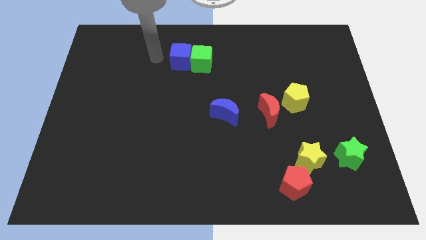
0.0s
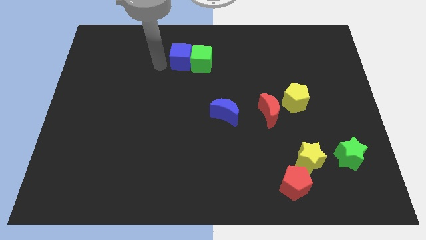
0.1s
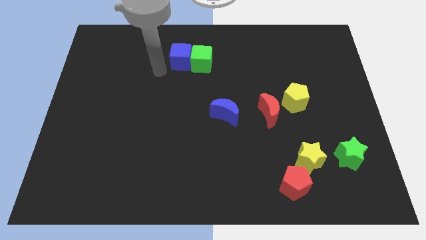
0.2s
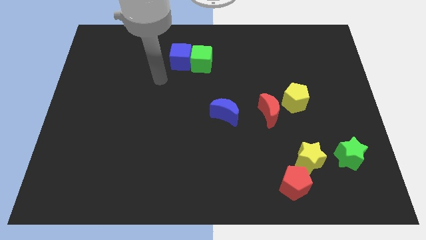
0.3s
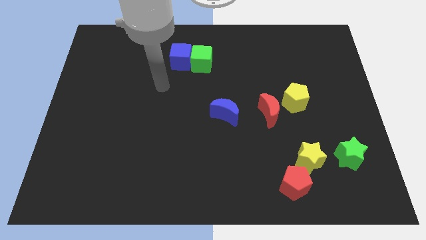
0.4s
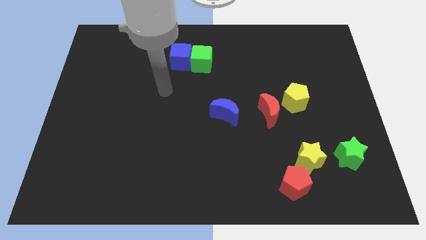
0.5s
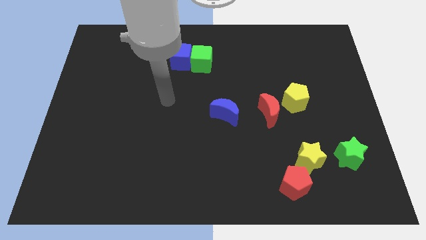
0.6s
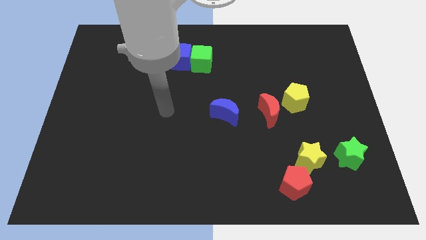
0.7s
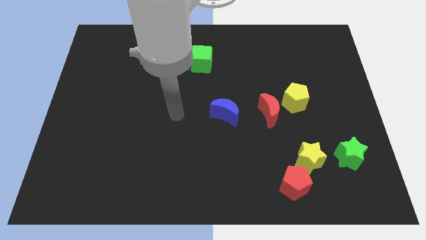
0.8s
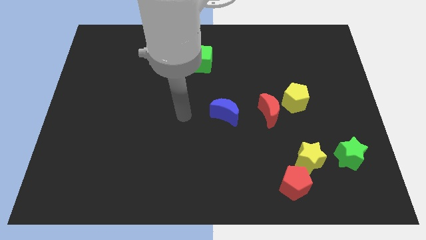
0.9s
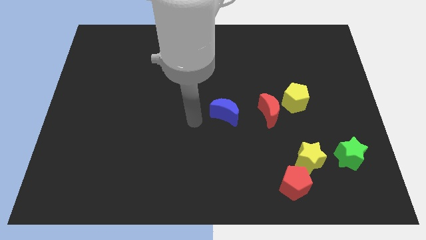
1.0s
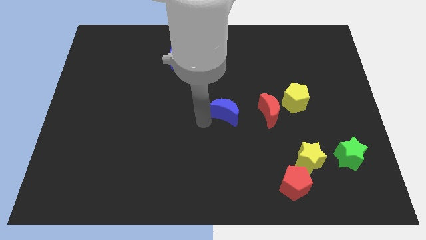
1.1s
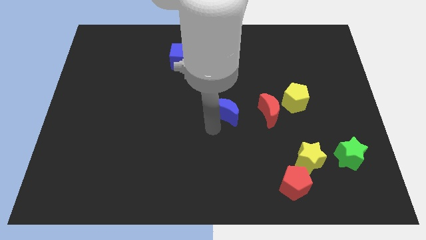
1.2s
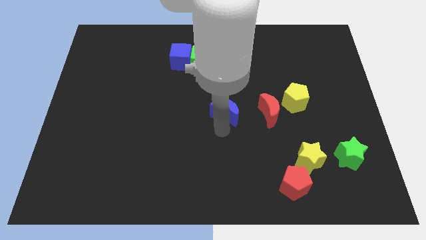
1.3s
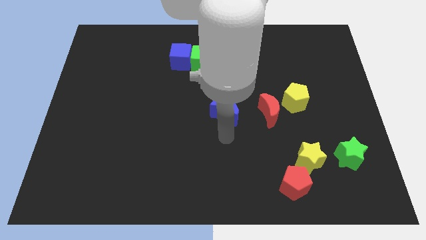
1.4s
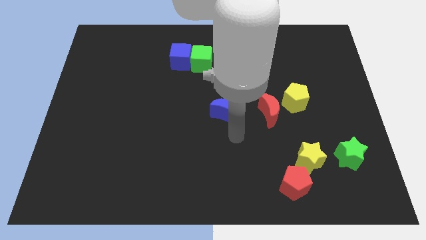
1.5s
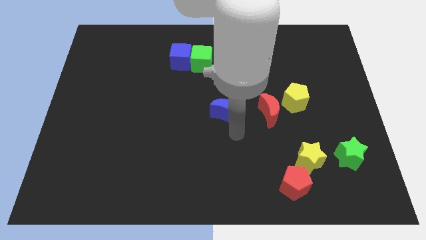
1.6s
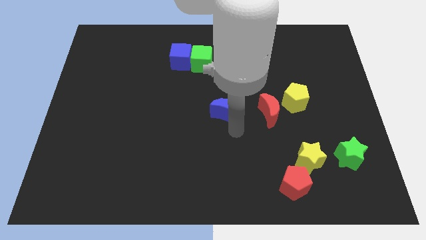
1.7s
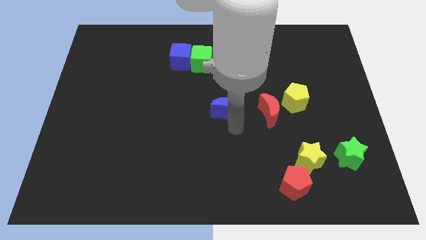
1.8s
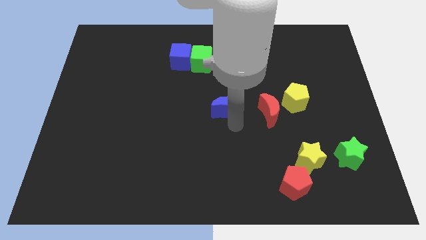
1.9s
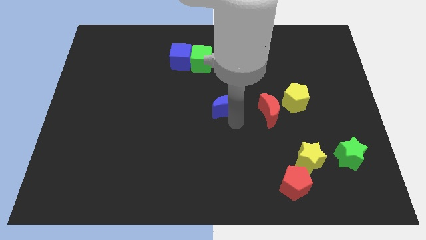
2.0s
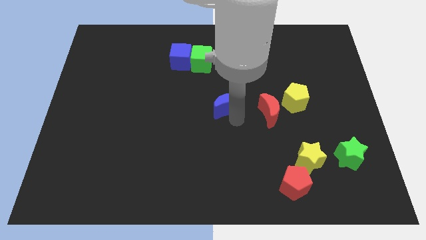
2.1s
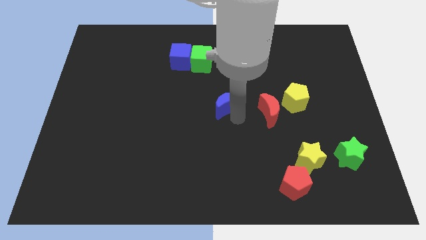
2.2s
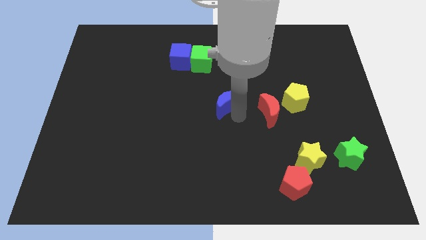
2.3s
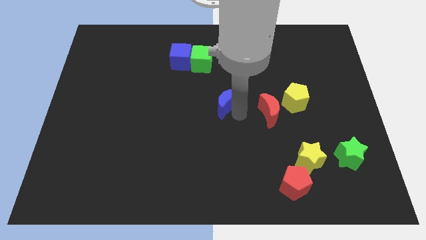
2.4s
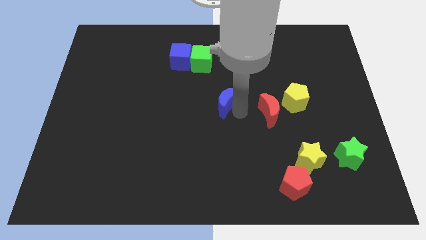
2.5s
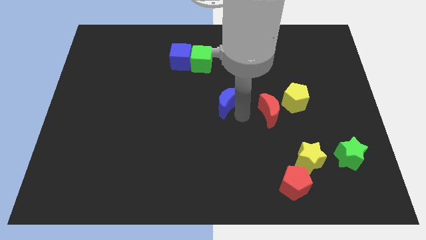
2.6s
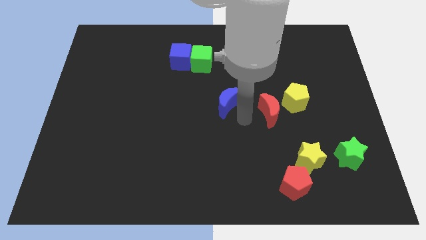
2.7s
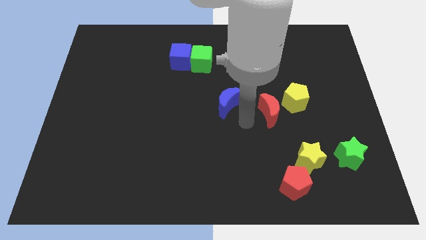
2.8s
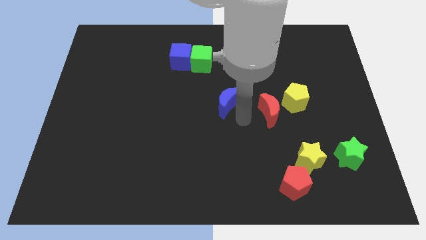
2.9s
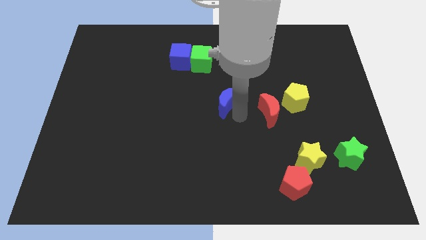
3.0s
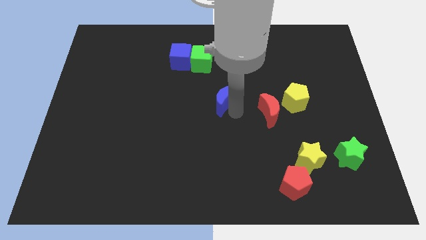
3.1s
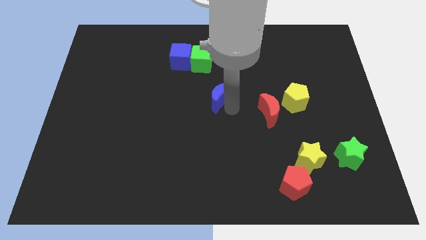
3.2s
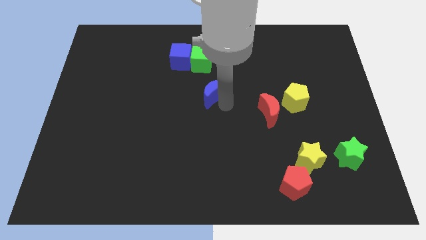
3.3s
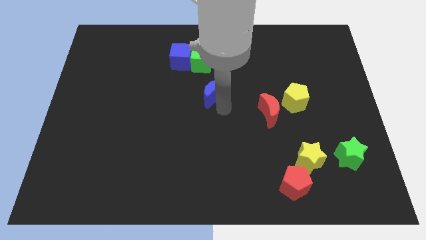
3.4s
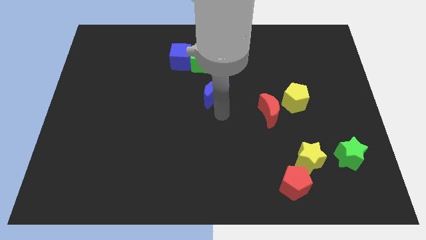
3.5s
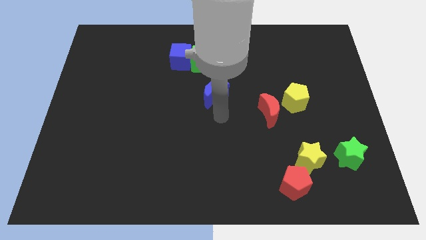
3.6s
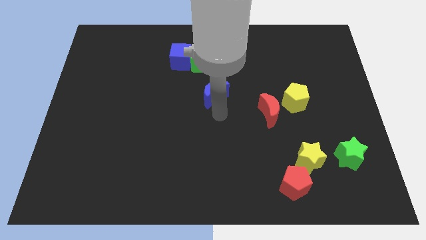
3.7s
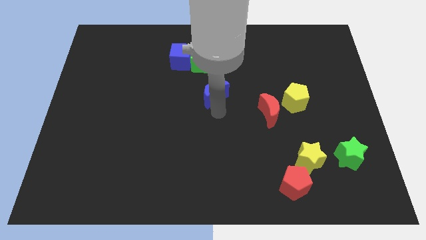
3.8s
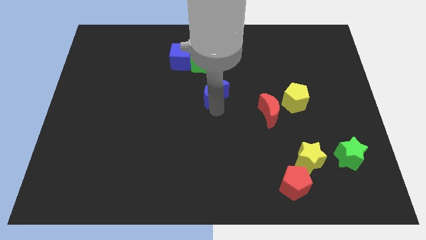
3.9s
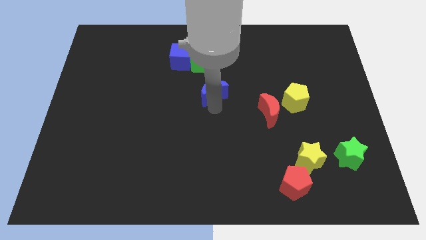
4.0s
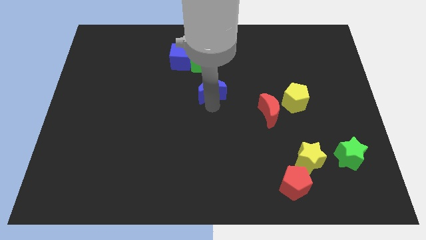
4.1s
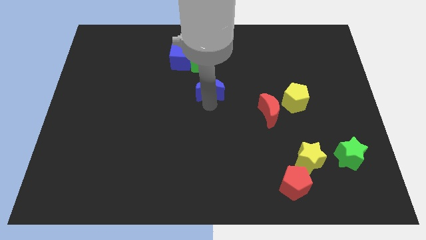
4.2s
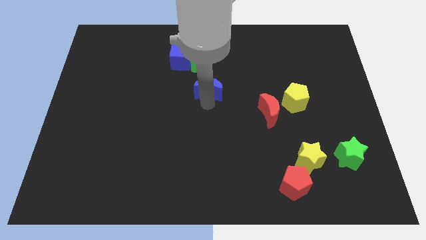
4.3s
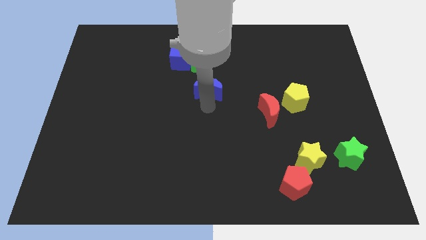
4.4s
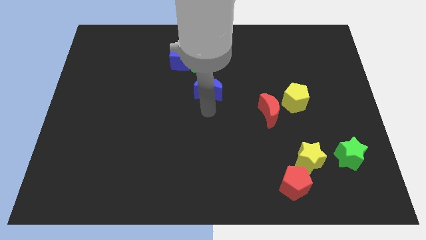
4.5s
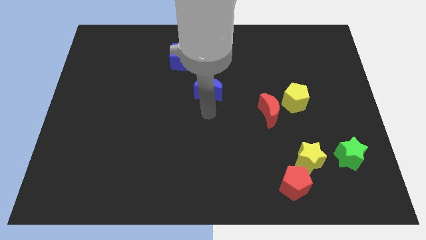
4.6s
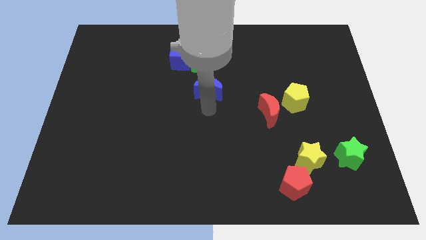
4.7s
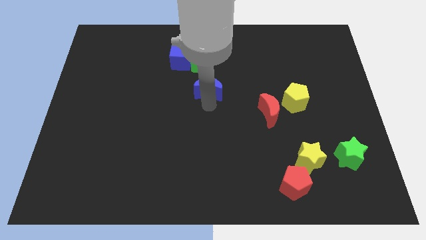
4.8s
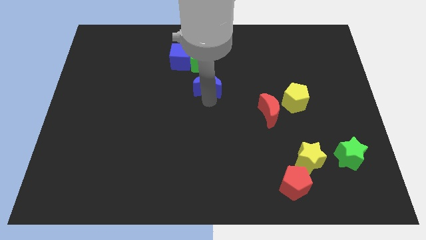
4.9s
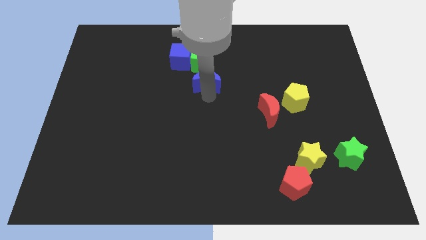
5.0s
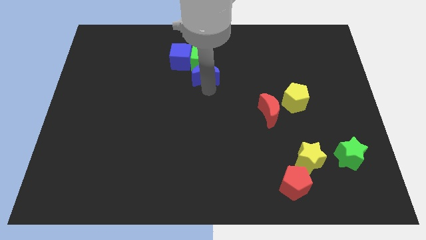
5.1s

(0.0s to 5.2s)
slide the blue moon next to the green cube
